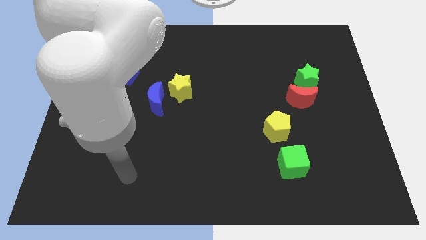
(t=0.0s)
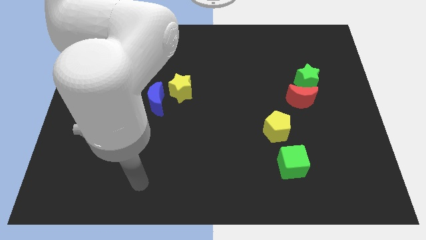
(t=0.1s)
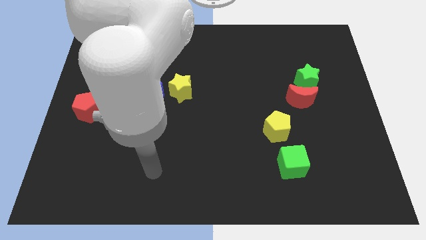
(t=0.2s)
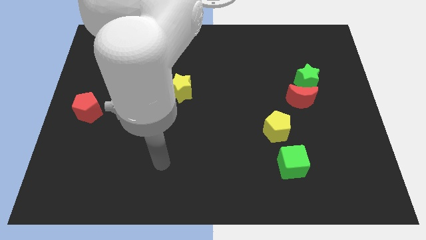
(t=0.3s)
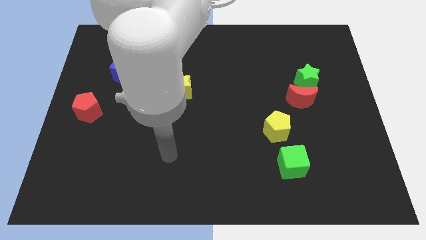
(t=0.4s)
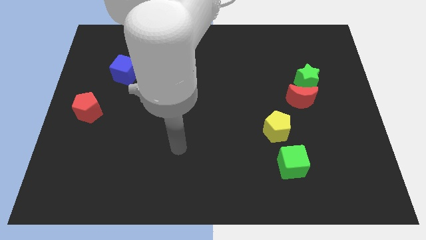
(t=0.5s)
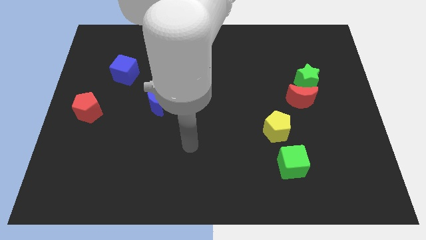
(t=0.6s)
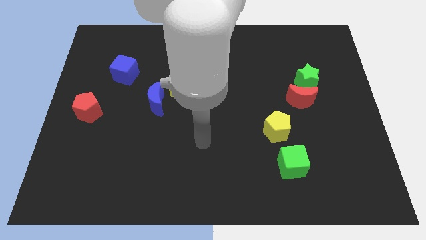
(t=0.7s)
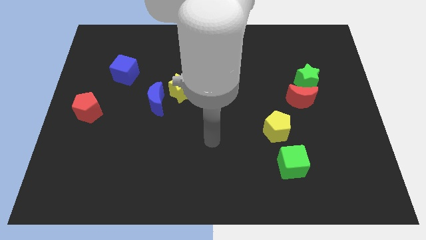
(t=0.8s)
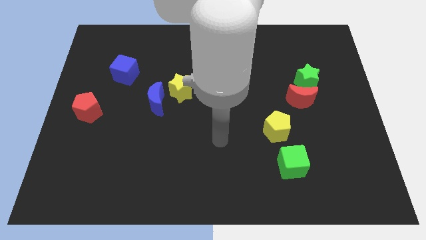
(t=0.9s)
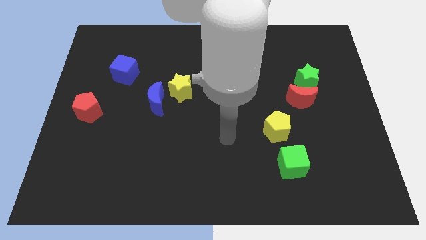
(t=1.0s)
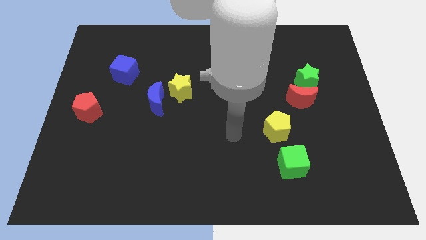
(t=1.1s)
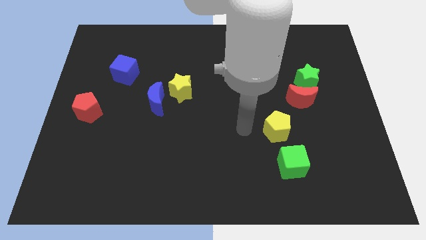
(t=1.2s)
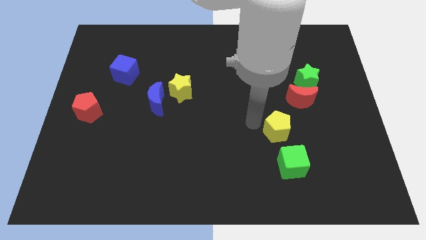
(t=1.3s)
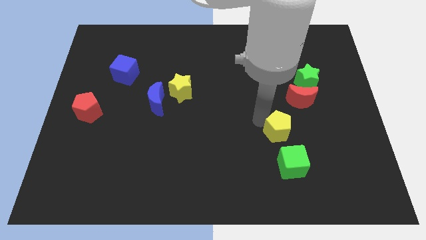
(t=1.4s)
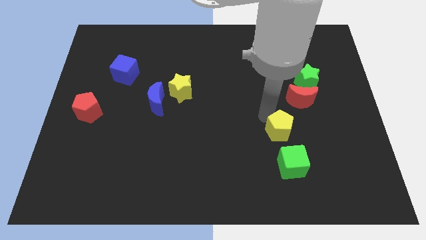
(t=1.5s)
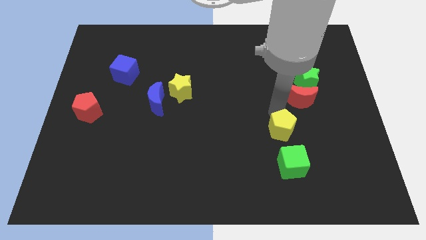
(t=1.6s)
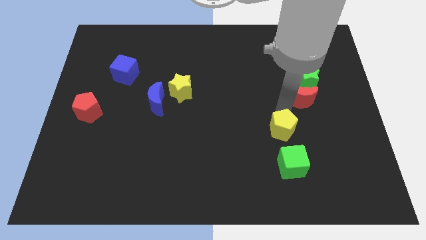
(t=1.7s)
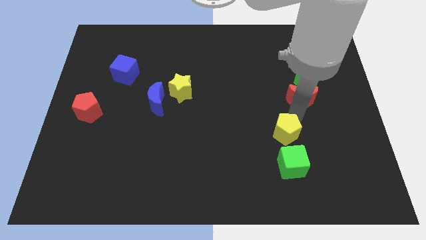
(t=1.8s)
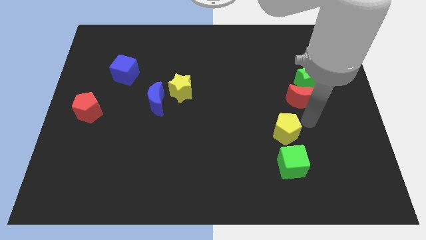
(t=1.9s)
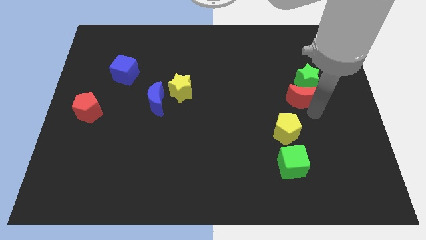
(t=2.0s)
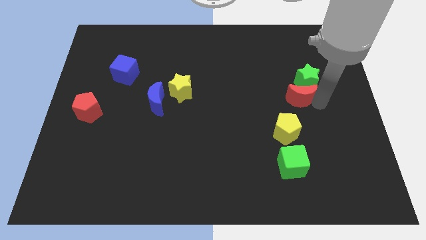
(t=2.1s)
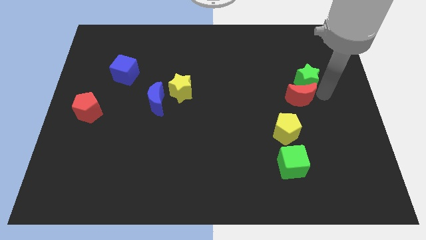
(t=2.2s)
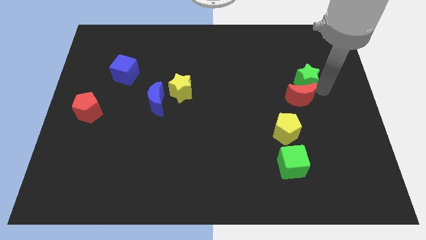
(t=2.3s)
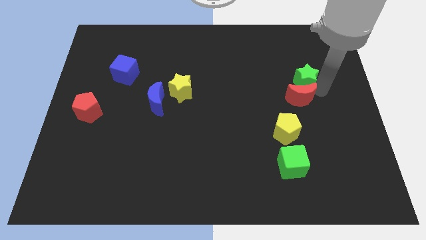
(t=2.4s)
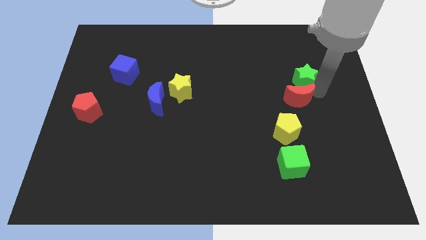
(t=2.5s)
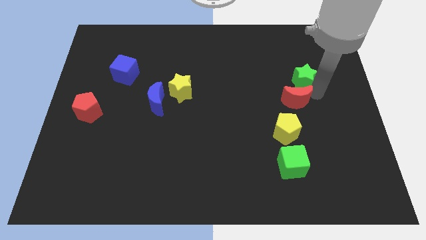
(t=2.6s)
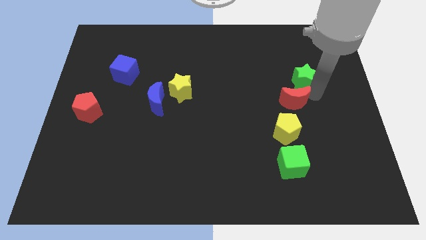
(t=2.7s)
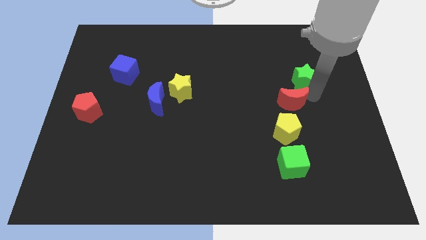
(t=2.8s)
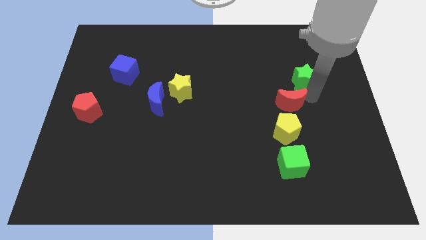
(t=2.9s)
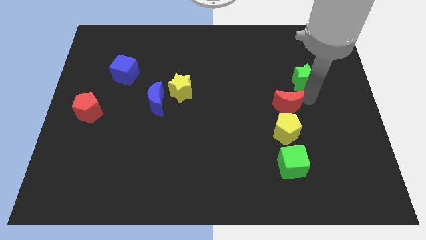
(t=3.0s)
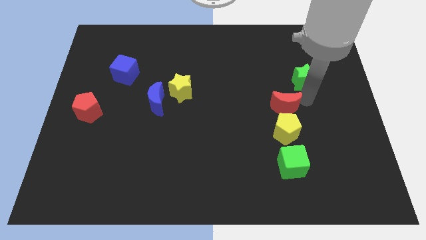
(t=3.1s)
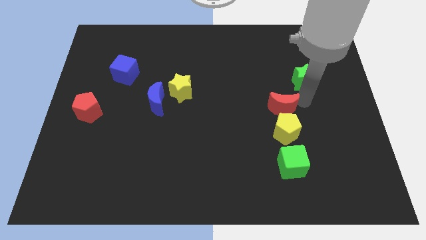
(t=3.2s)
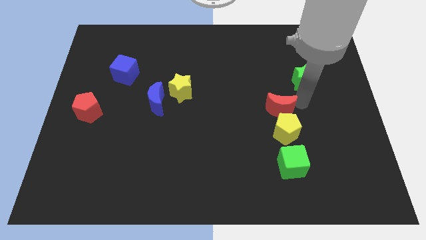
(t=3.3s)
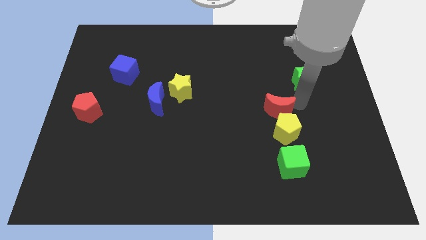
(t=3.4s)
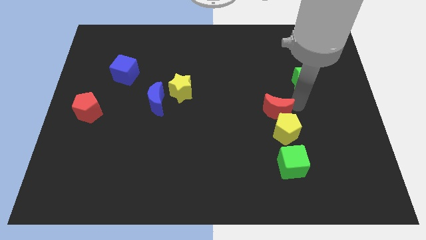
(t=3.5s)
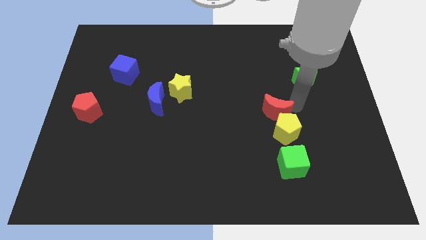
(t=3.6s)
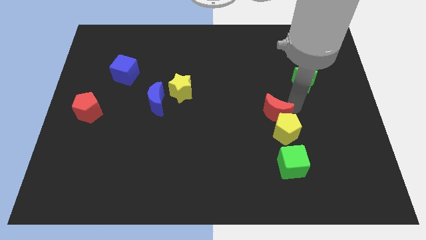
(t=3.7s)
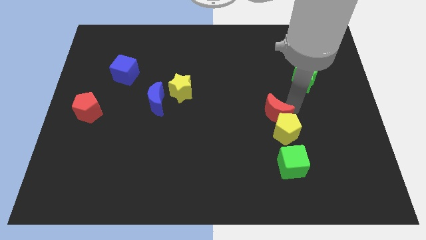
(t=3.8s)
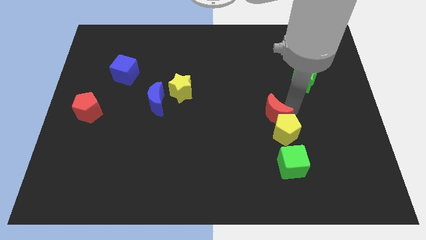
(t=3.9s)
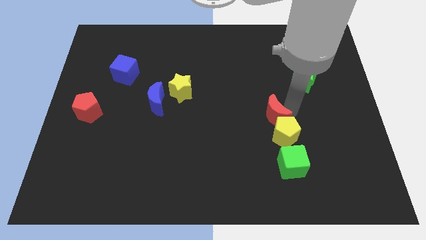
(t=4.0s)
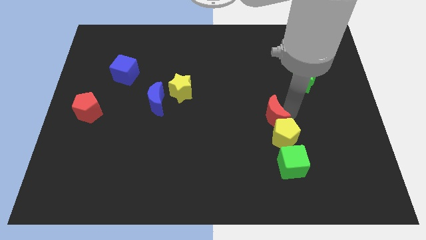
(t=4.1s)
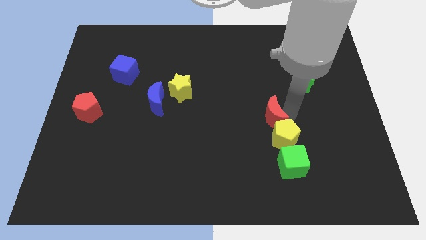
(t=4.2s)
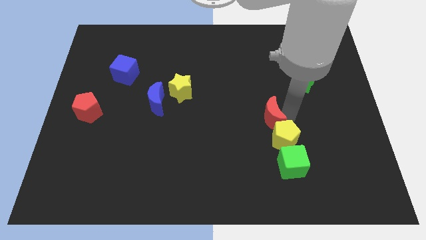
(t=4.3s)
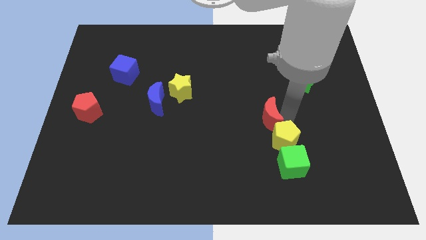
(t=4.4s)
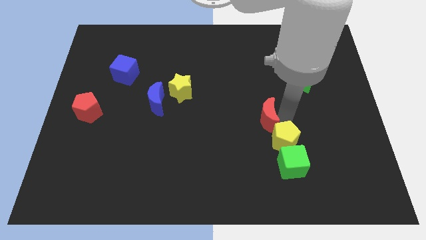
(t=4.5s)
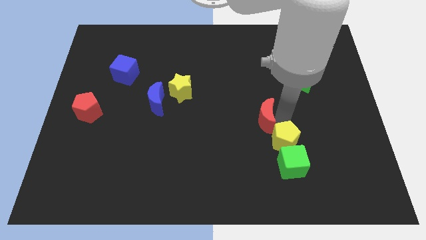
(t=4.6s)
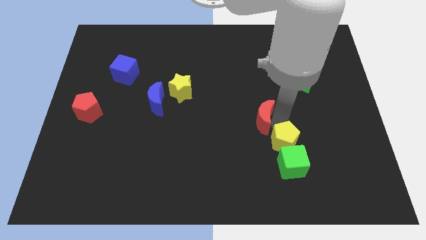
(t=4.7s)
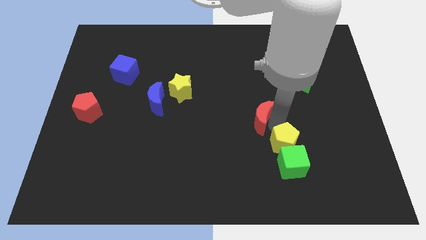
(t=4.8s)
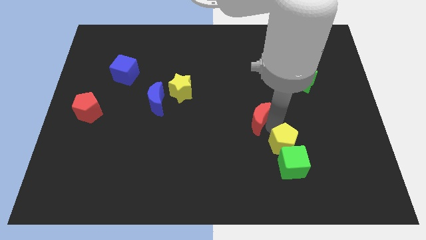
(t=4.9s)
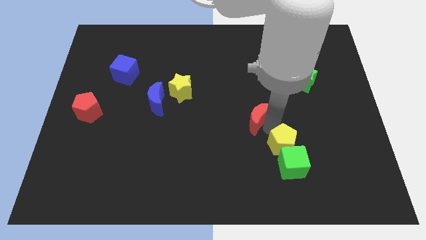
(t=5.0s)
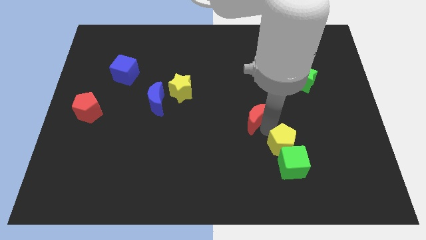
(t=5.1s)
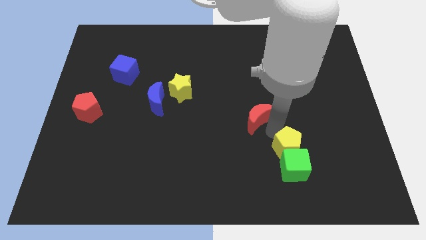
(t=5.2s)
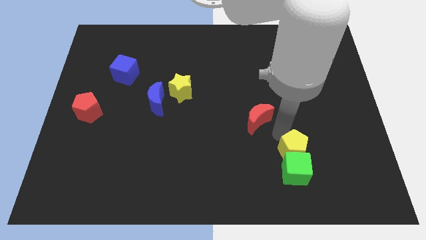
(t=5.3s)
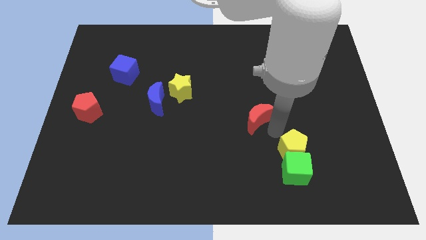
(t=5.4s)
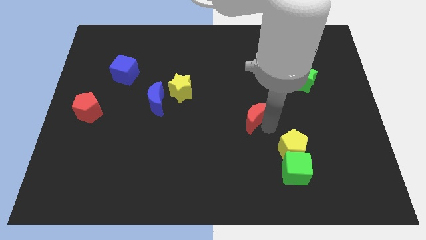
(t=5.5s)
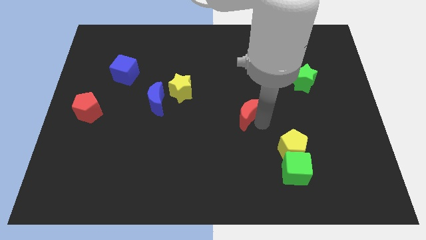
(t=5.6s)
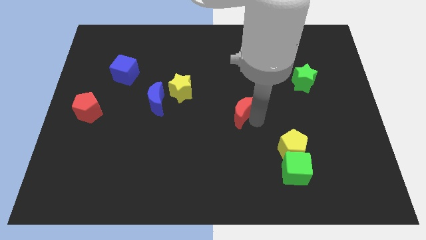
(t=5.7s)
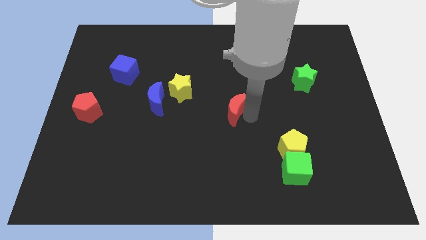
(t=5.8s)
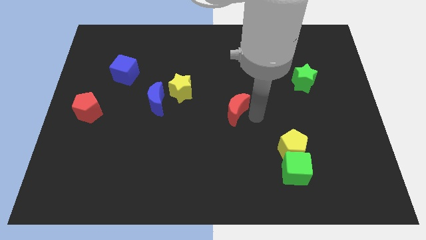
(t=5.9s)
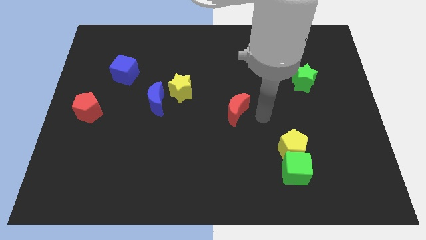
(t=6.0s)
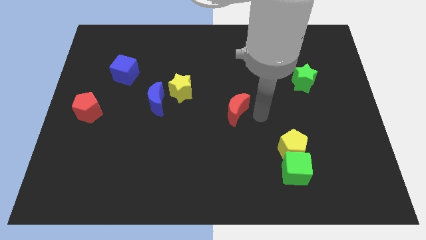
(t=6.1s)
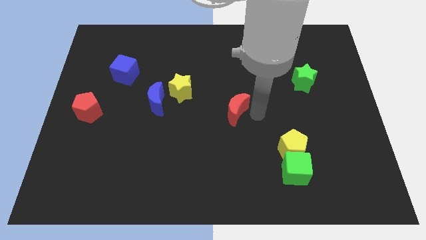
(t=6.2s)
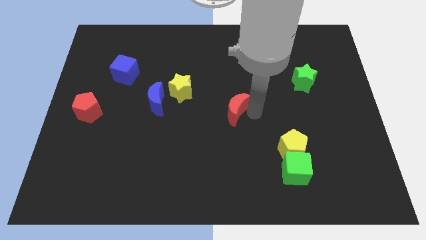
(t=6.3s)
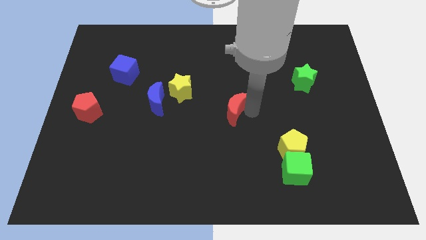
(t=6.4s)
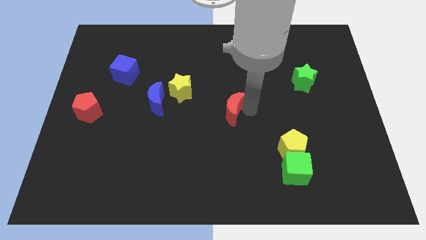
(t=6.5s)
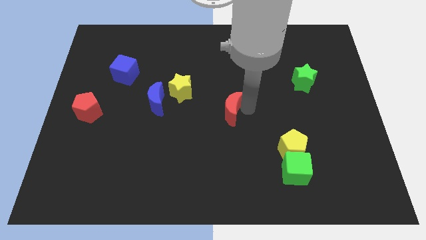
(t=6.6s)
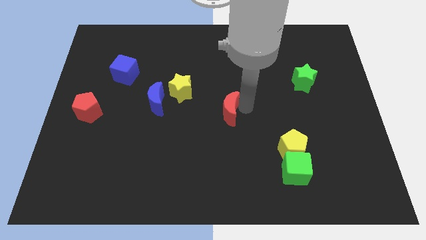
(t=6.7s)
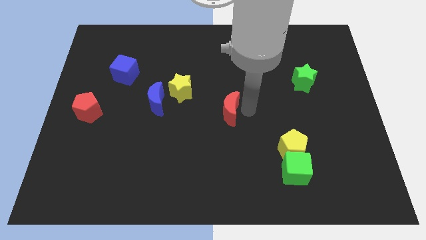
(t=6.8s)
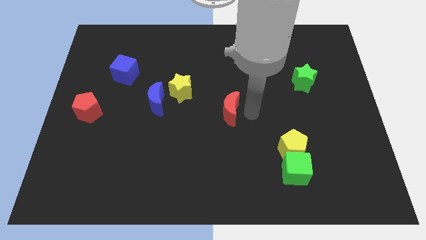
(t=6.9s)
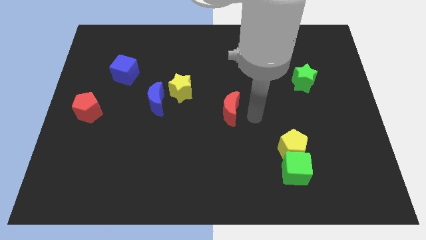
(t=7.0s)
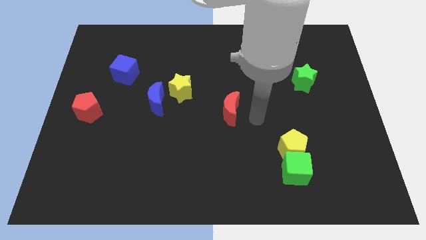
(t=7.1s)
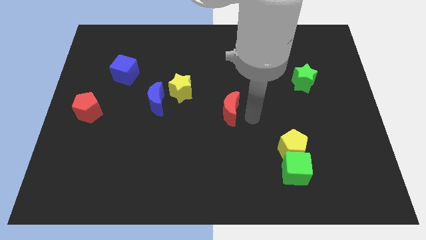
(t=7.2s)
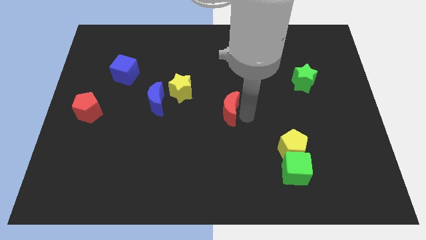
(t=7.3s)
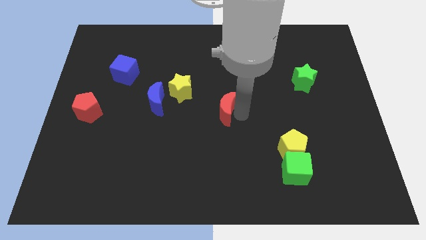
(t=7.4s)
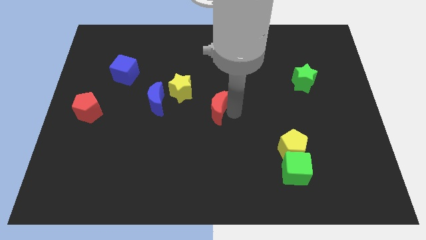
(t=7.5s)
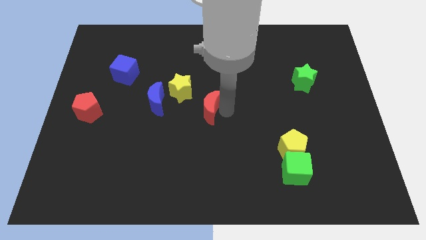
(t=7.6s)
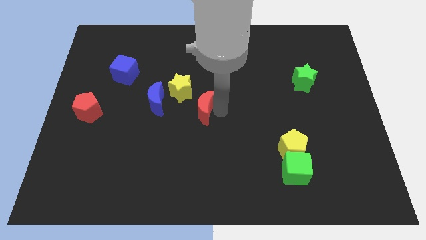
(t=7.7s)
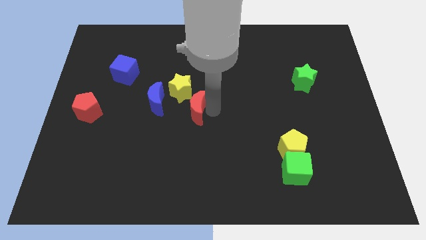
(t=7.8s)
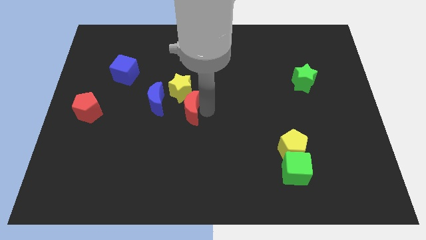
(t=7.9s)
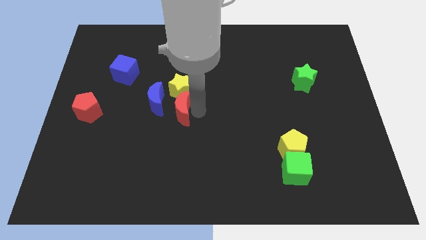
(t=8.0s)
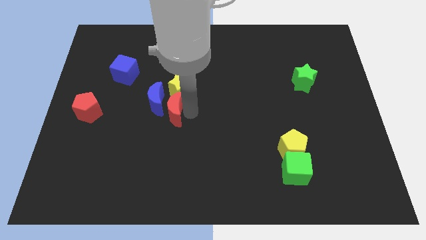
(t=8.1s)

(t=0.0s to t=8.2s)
put the red moon towards the blue moon
